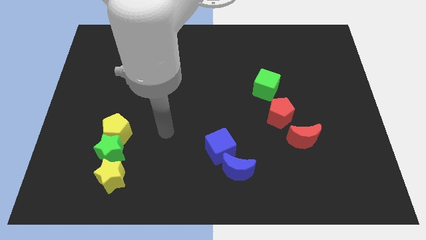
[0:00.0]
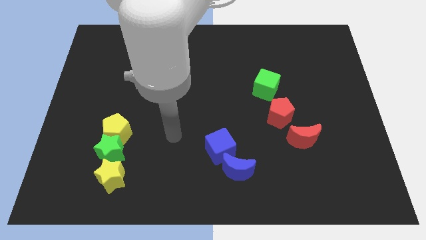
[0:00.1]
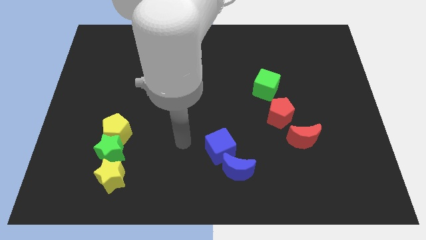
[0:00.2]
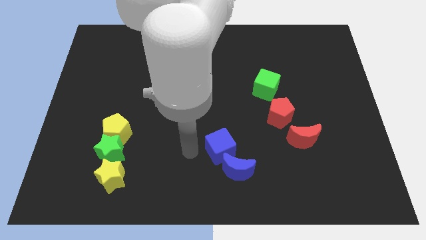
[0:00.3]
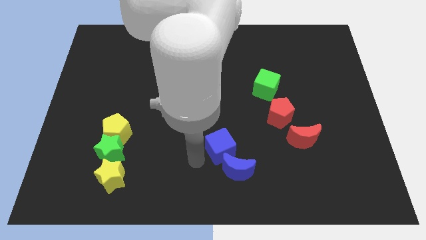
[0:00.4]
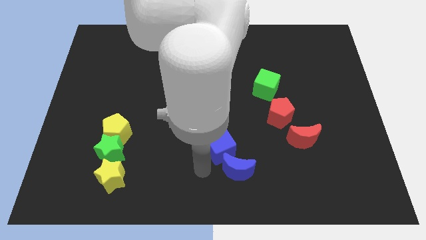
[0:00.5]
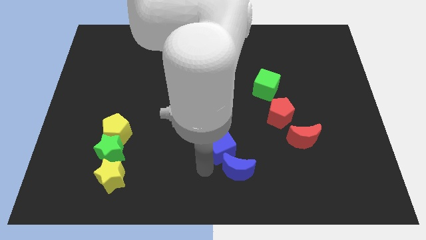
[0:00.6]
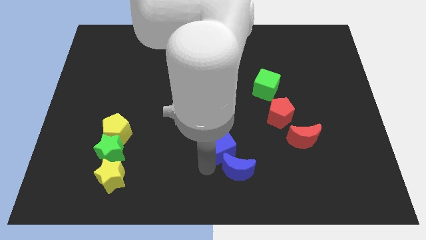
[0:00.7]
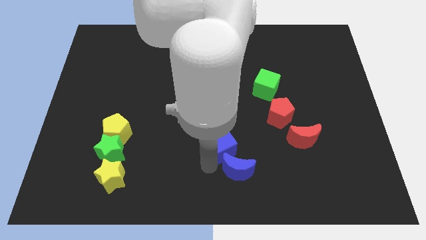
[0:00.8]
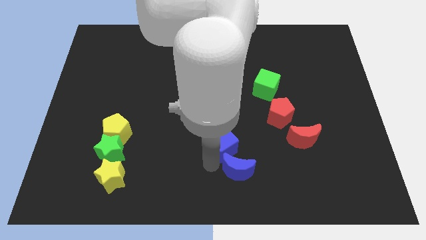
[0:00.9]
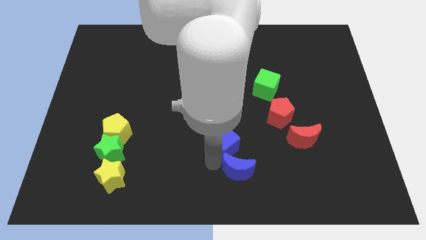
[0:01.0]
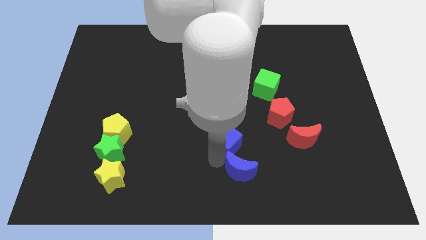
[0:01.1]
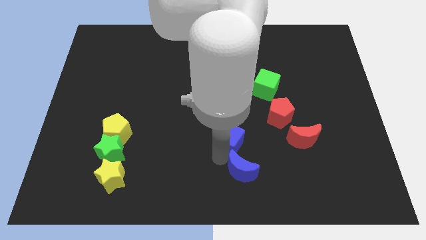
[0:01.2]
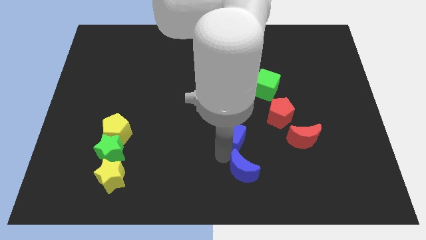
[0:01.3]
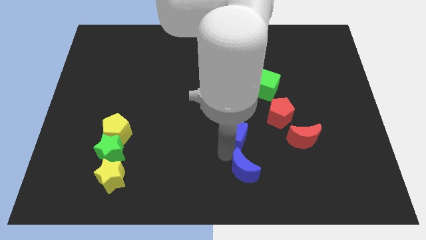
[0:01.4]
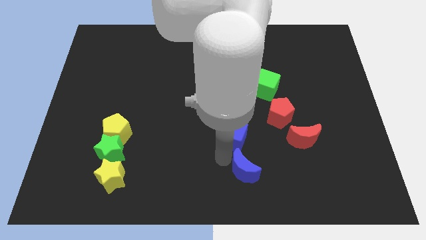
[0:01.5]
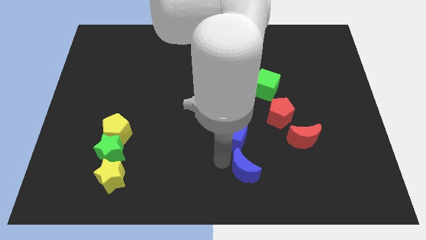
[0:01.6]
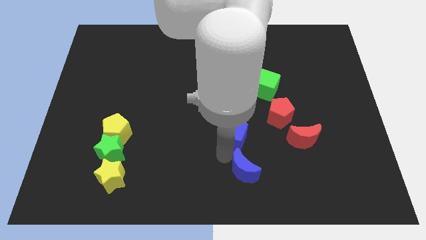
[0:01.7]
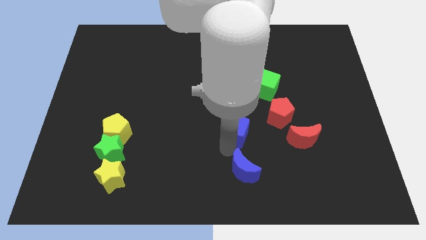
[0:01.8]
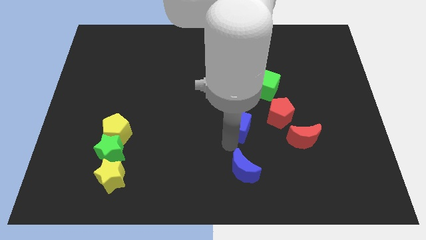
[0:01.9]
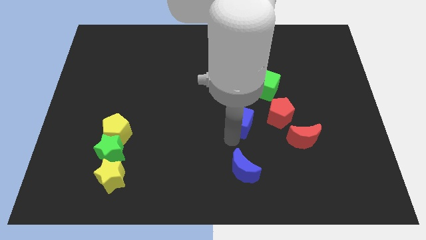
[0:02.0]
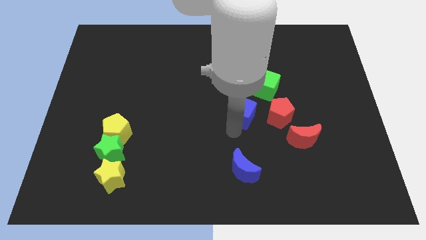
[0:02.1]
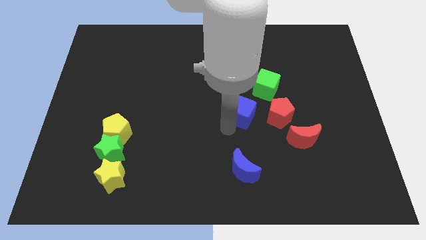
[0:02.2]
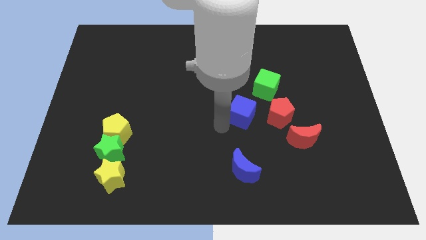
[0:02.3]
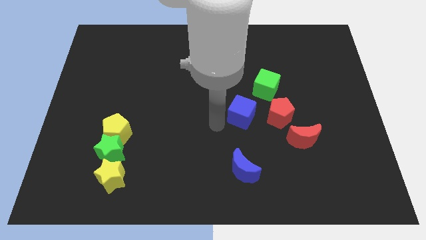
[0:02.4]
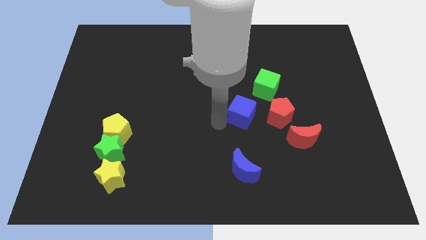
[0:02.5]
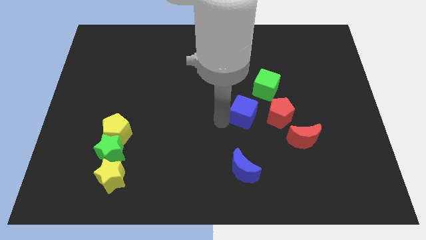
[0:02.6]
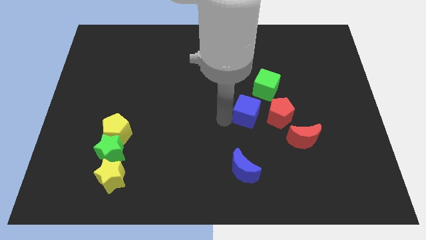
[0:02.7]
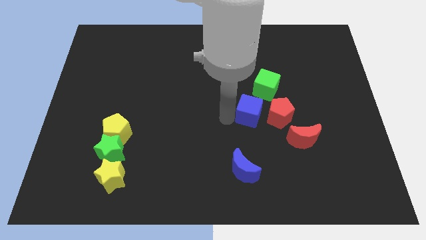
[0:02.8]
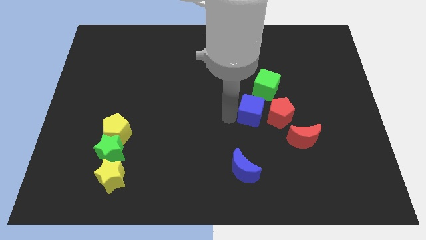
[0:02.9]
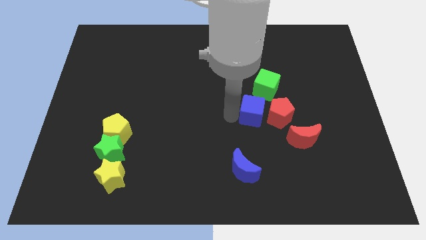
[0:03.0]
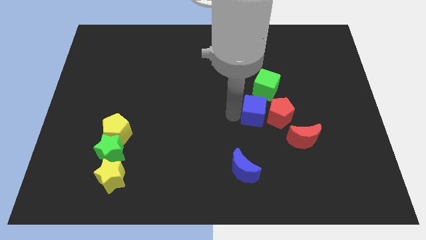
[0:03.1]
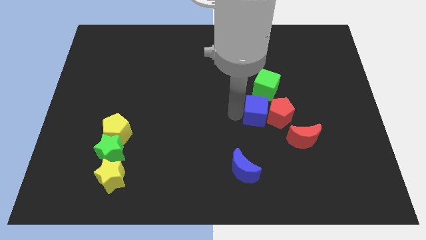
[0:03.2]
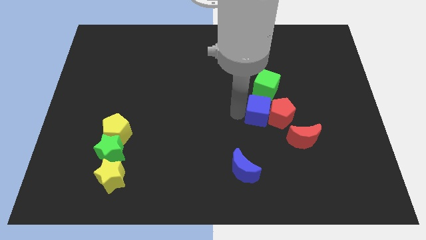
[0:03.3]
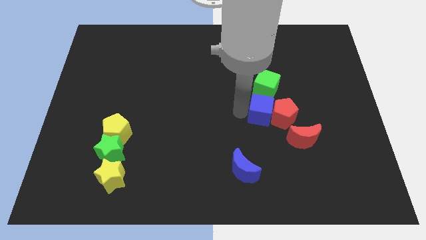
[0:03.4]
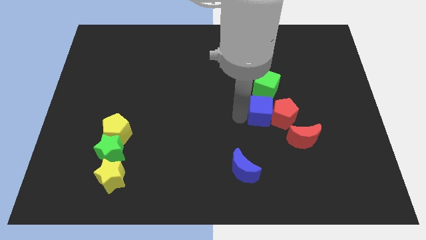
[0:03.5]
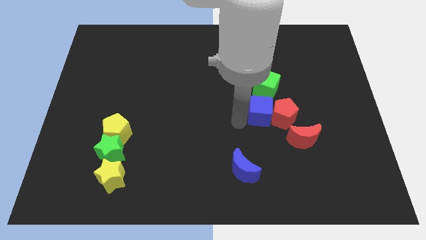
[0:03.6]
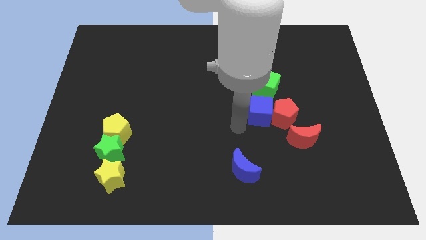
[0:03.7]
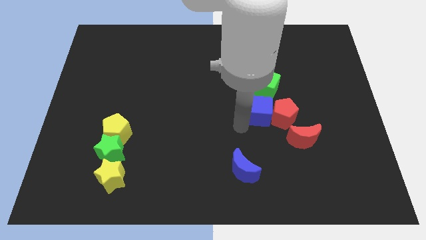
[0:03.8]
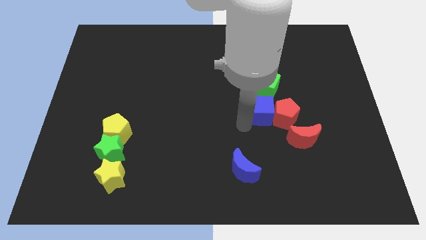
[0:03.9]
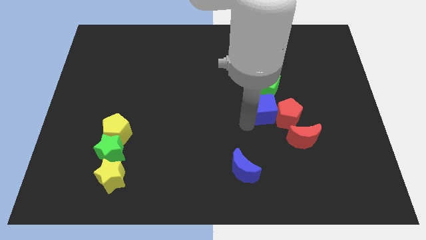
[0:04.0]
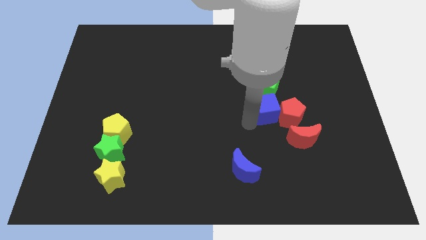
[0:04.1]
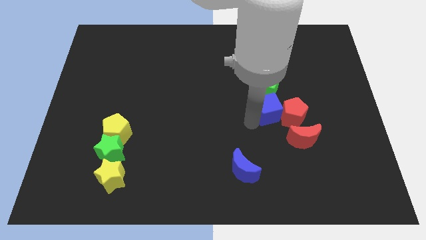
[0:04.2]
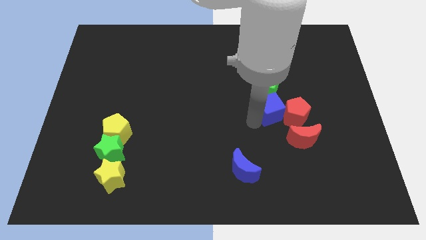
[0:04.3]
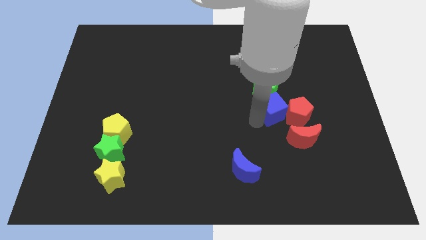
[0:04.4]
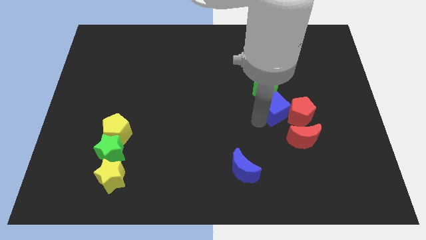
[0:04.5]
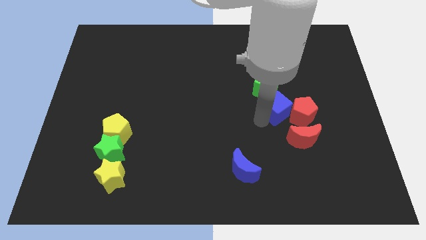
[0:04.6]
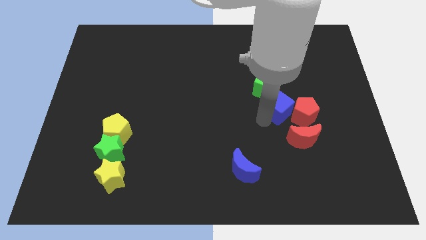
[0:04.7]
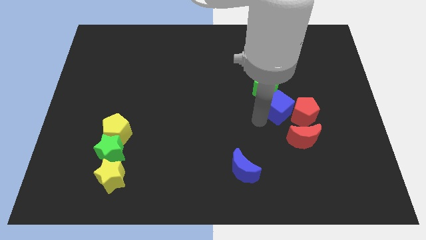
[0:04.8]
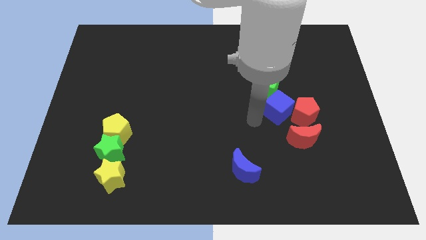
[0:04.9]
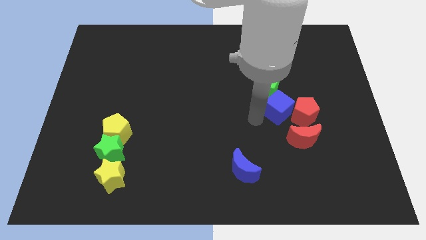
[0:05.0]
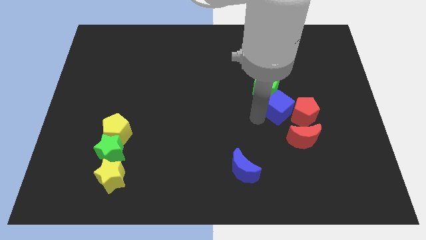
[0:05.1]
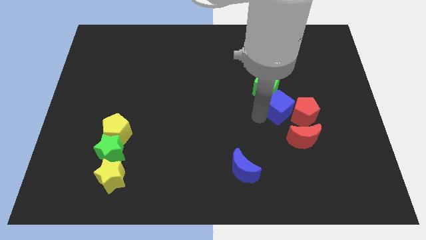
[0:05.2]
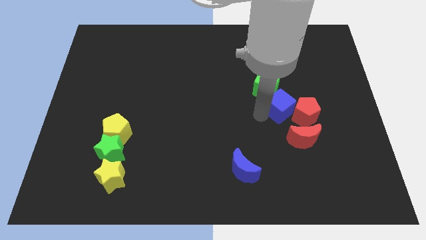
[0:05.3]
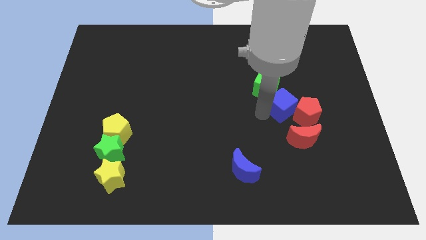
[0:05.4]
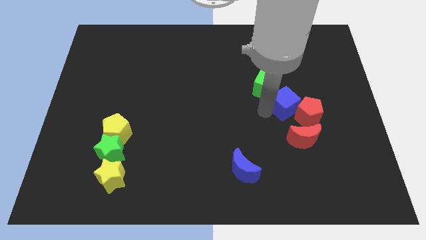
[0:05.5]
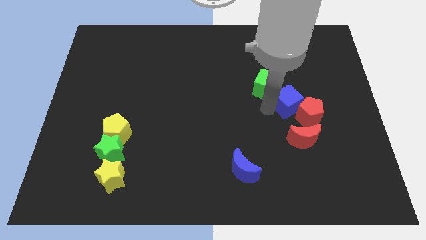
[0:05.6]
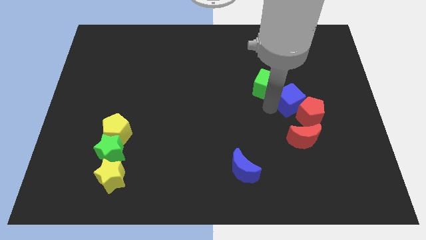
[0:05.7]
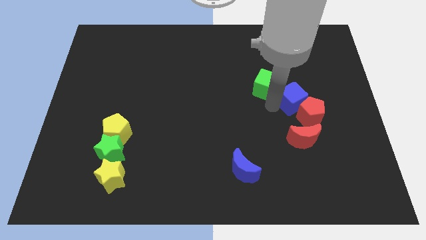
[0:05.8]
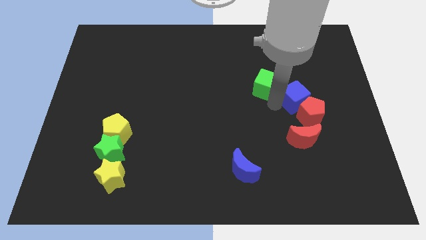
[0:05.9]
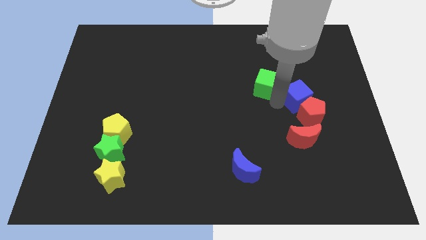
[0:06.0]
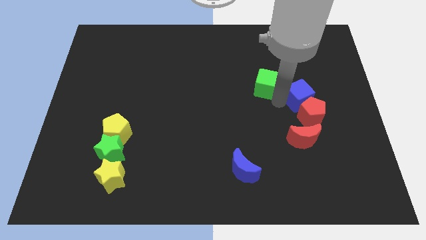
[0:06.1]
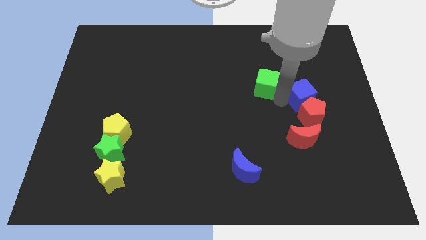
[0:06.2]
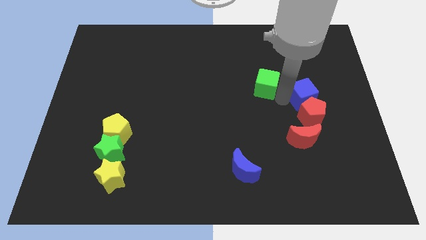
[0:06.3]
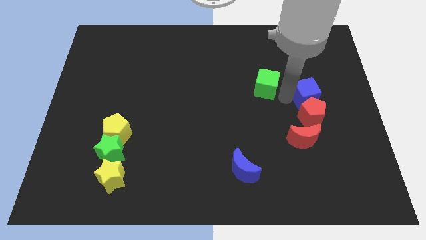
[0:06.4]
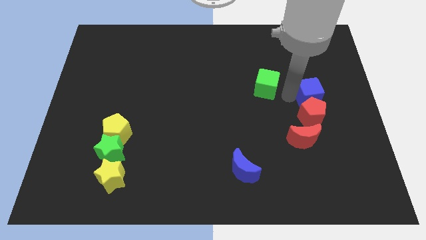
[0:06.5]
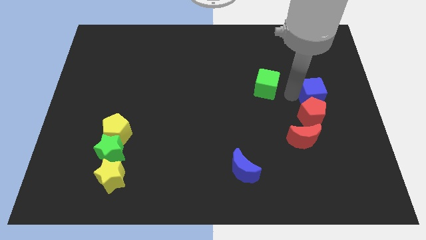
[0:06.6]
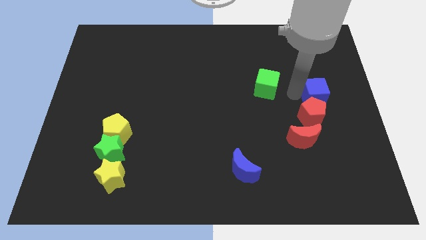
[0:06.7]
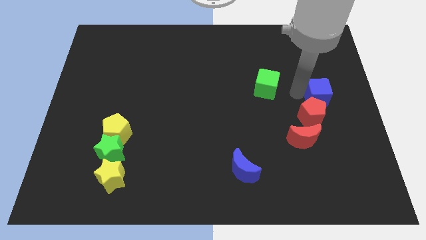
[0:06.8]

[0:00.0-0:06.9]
put the blue cube to the right side
